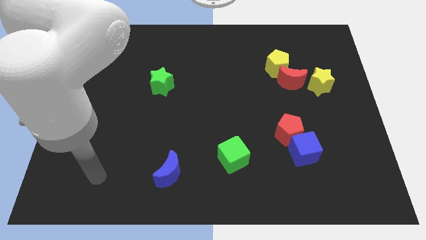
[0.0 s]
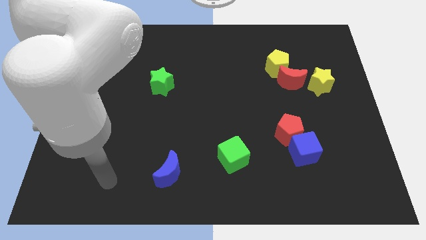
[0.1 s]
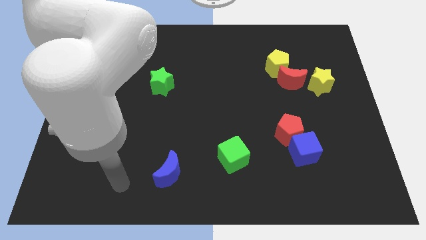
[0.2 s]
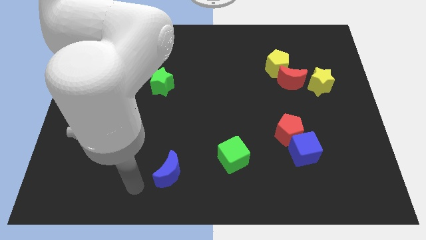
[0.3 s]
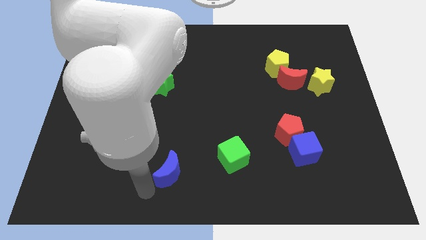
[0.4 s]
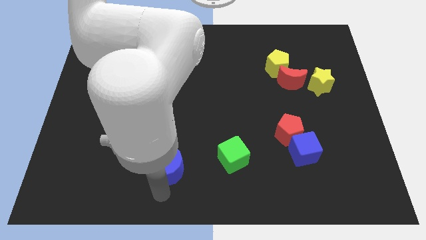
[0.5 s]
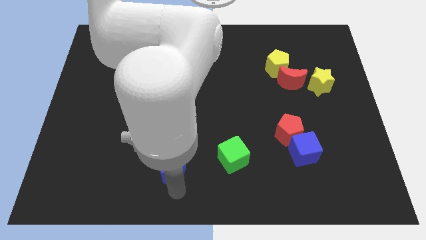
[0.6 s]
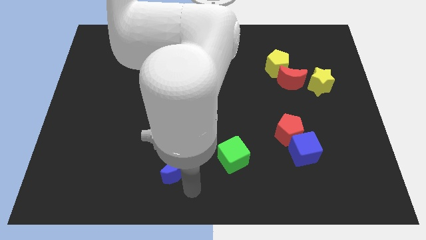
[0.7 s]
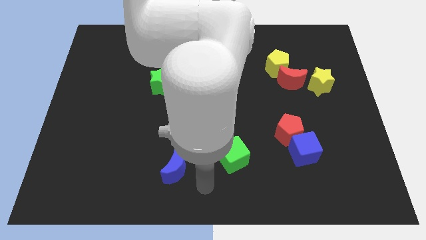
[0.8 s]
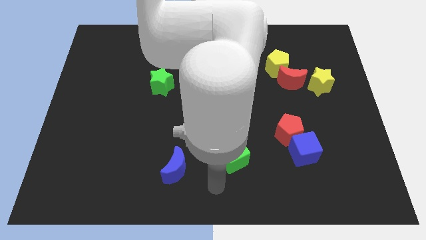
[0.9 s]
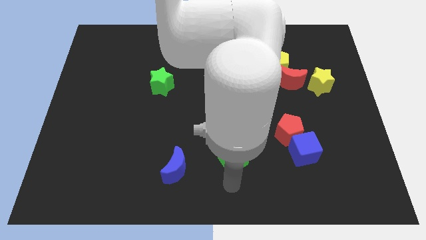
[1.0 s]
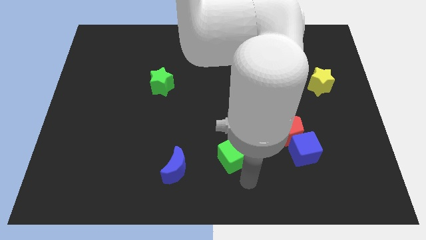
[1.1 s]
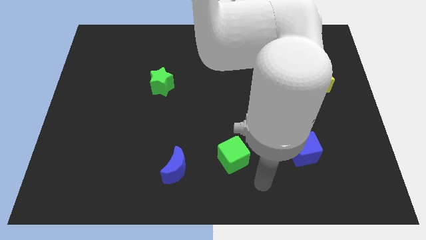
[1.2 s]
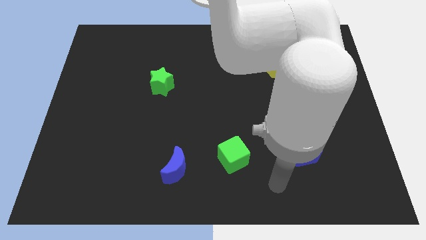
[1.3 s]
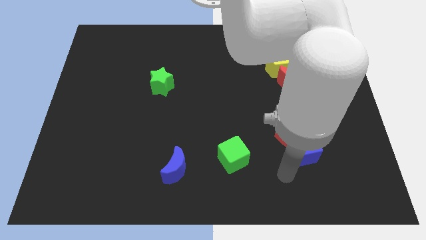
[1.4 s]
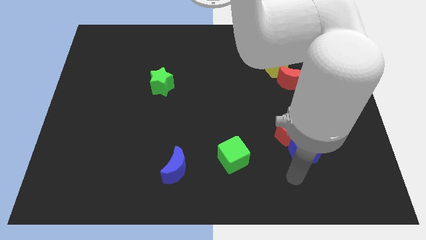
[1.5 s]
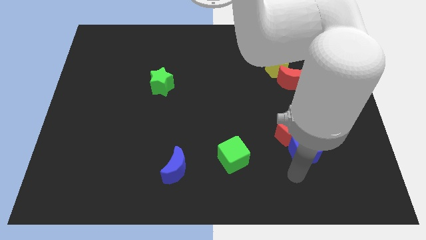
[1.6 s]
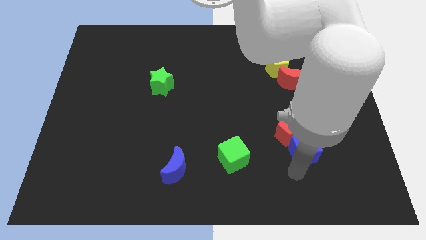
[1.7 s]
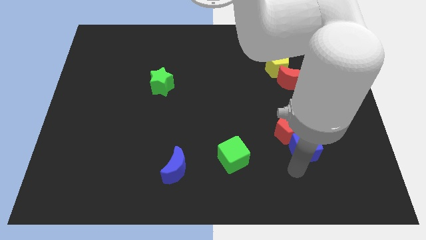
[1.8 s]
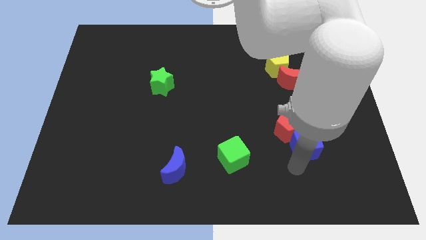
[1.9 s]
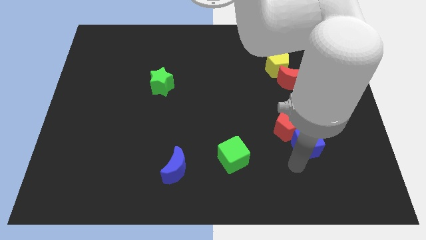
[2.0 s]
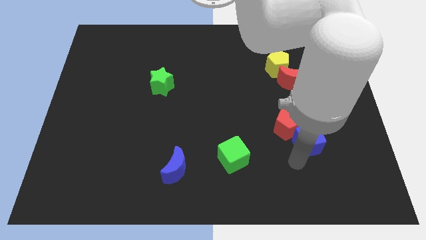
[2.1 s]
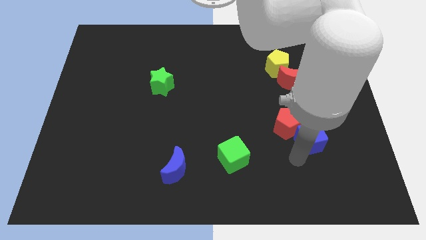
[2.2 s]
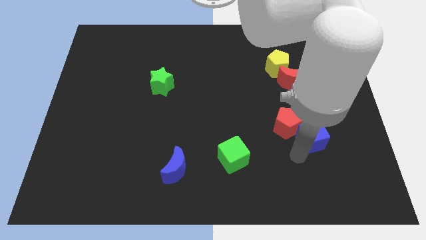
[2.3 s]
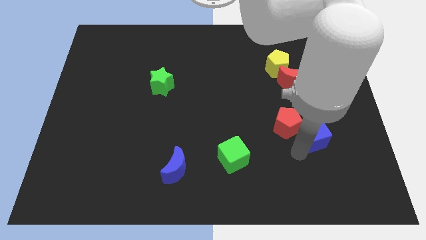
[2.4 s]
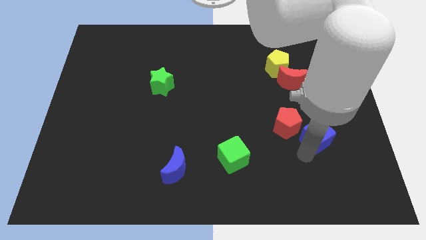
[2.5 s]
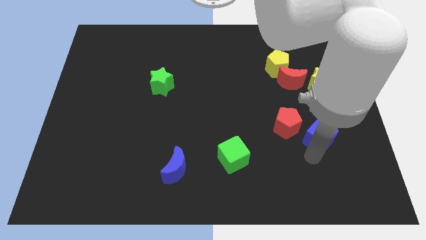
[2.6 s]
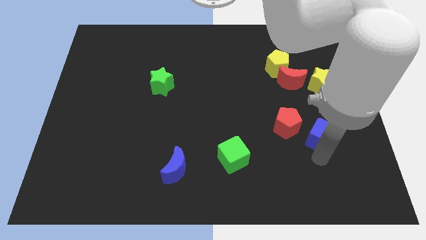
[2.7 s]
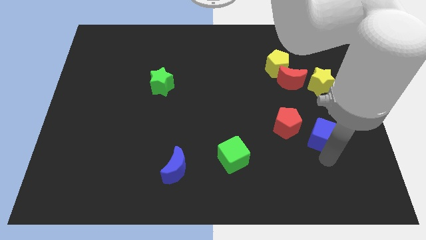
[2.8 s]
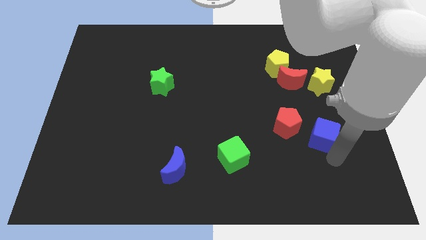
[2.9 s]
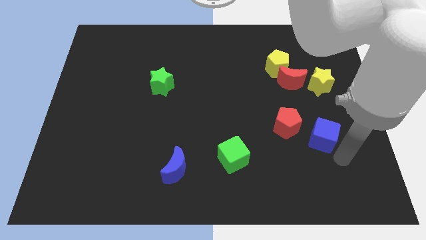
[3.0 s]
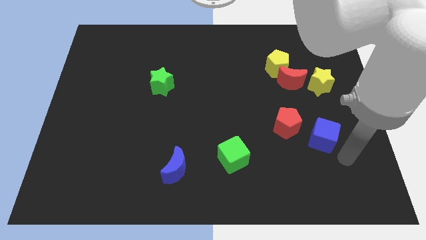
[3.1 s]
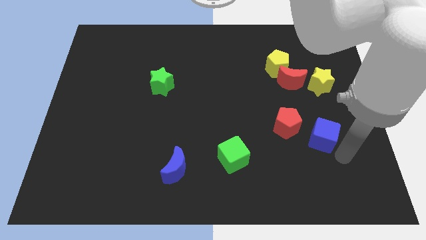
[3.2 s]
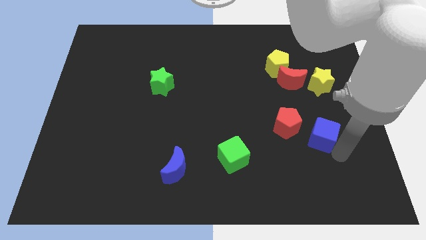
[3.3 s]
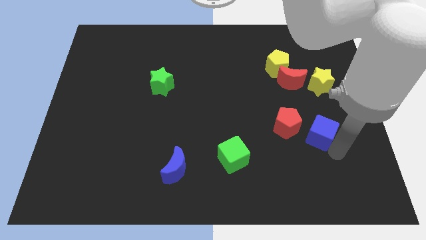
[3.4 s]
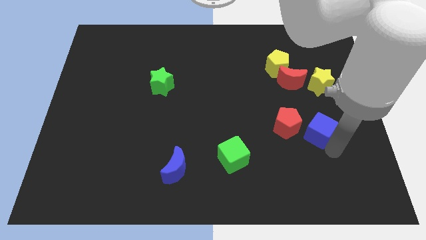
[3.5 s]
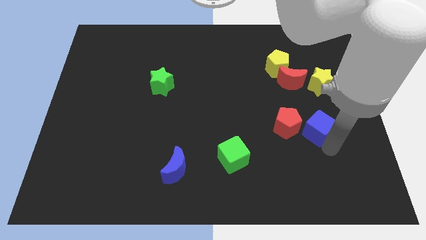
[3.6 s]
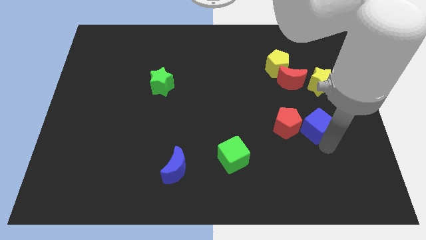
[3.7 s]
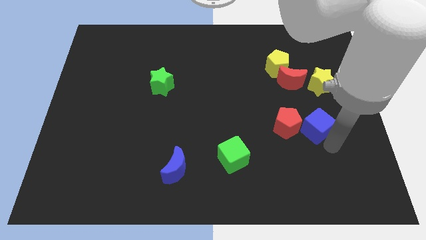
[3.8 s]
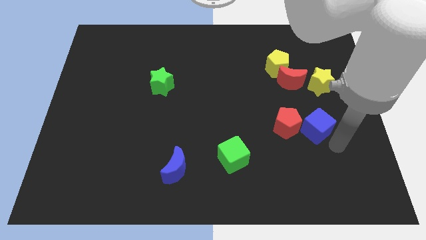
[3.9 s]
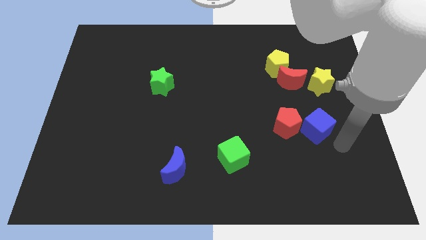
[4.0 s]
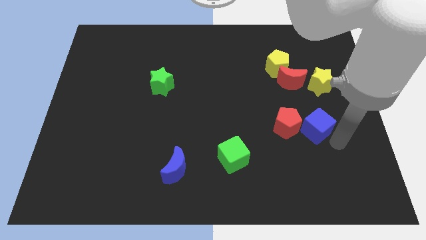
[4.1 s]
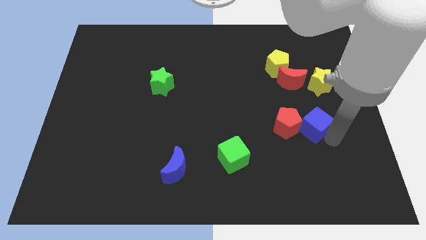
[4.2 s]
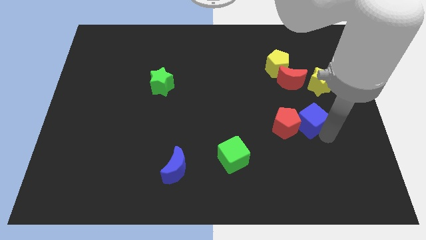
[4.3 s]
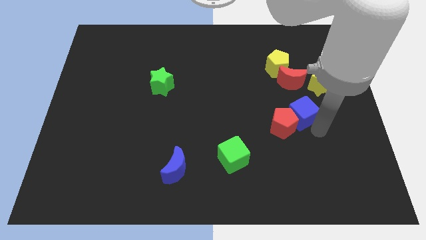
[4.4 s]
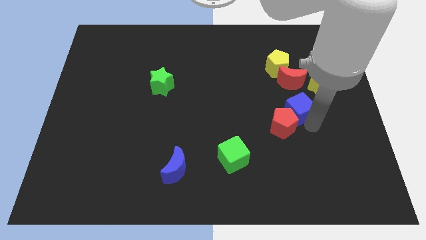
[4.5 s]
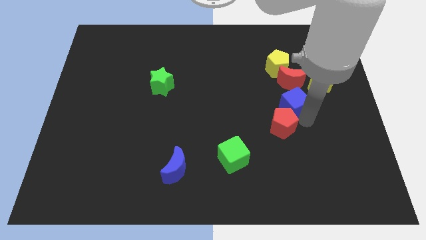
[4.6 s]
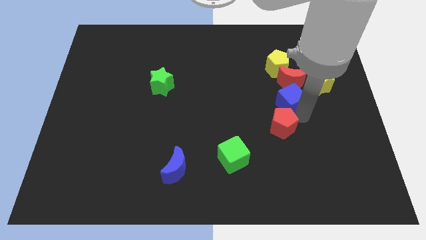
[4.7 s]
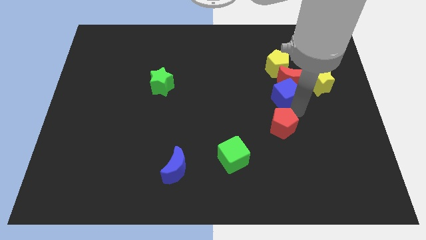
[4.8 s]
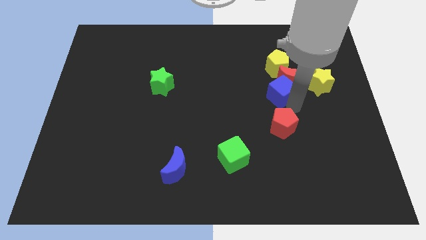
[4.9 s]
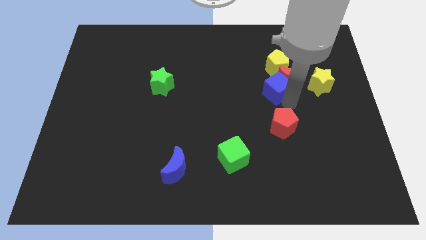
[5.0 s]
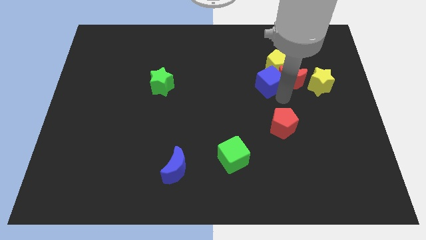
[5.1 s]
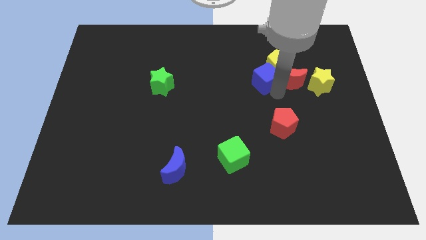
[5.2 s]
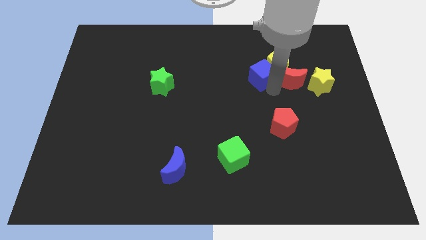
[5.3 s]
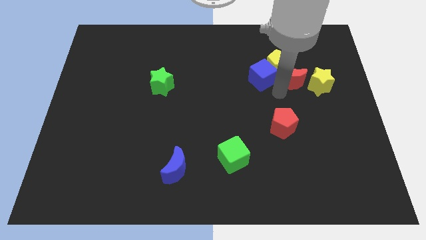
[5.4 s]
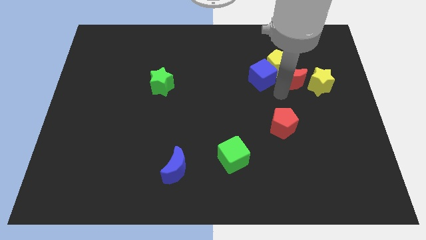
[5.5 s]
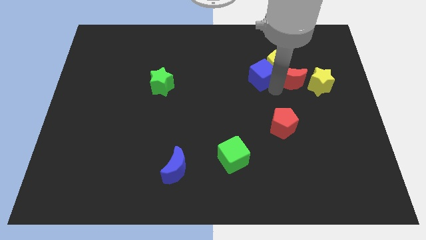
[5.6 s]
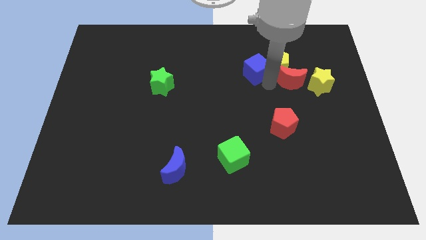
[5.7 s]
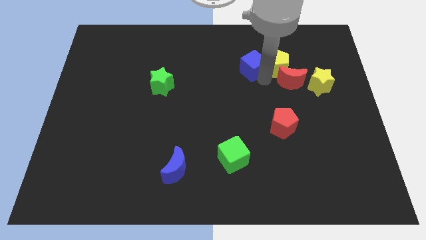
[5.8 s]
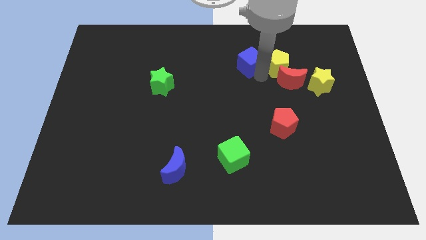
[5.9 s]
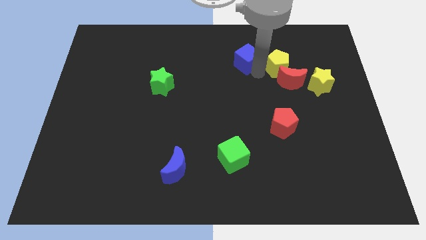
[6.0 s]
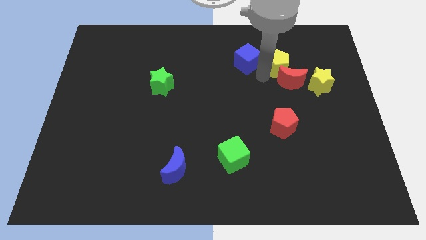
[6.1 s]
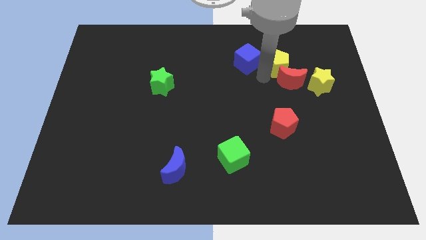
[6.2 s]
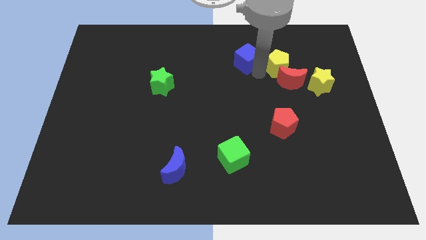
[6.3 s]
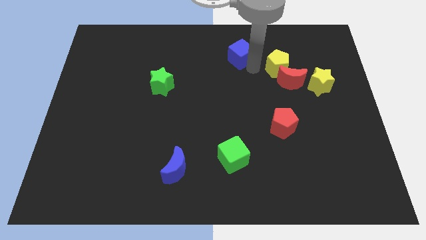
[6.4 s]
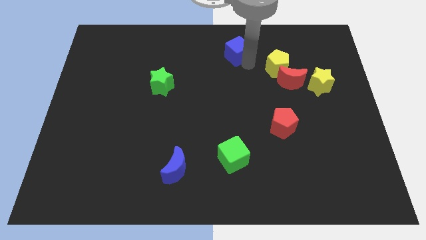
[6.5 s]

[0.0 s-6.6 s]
slide the blue cube to the top side
